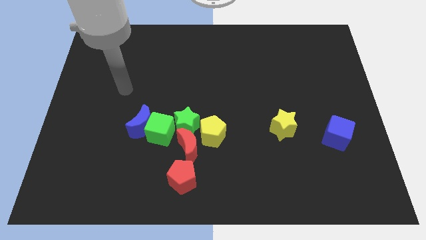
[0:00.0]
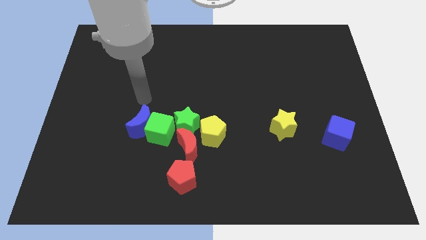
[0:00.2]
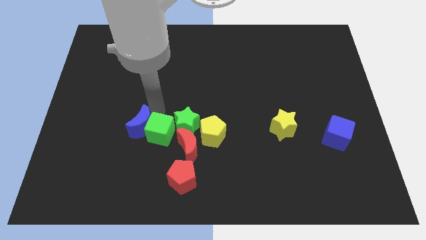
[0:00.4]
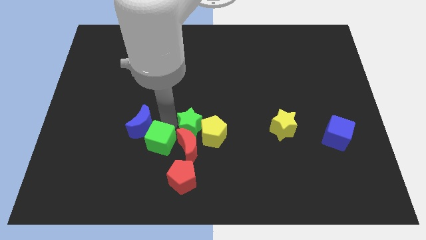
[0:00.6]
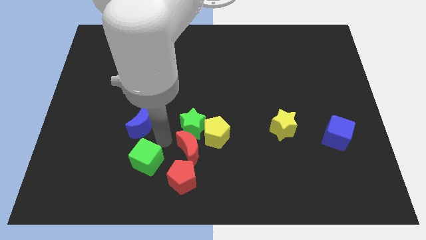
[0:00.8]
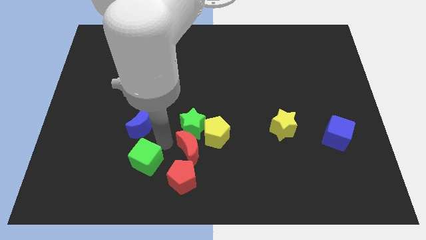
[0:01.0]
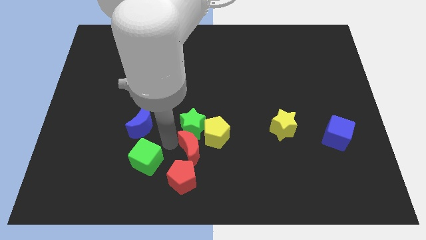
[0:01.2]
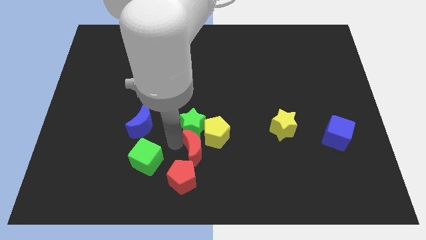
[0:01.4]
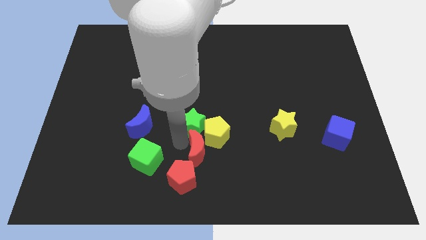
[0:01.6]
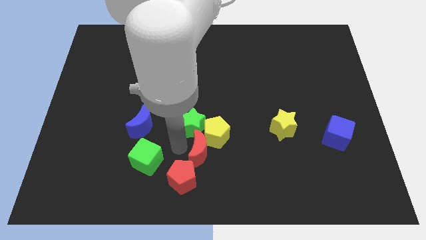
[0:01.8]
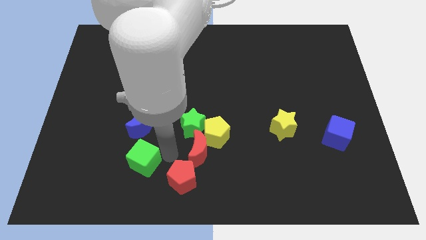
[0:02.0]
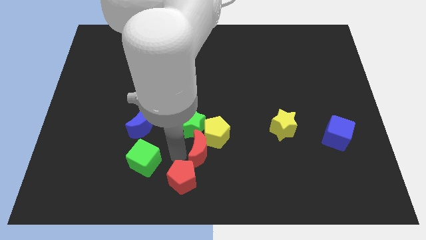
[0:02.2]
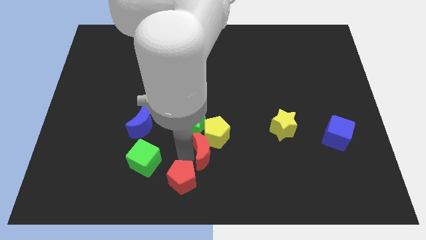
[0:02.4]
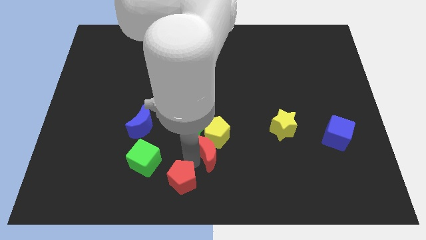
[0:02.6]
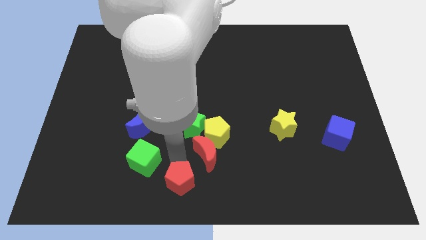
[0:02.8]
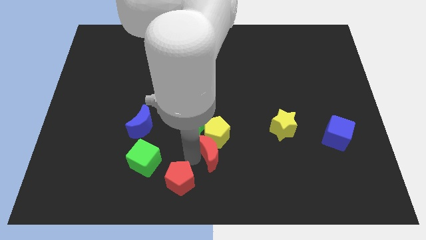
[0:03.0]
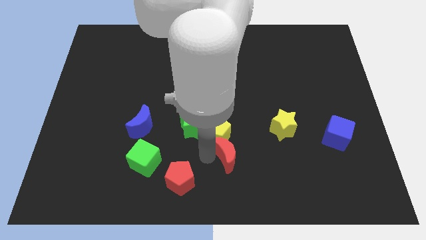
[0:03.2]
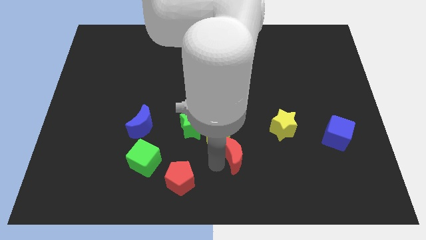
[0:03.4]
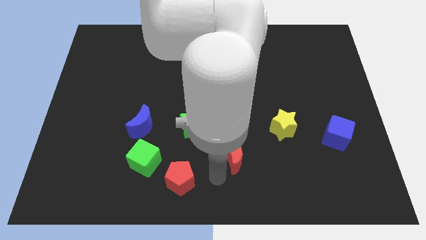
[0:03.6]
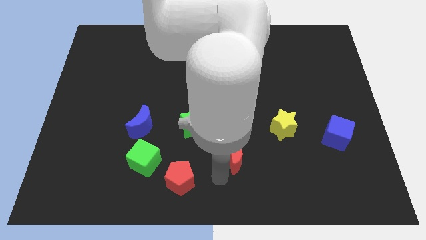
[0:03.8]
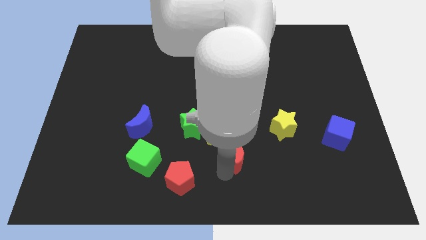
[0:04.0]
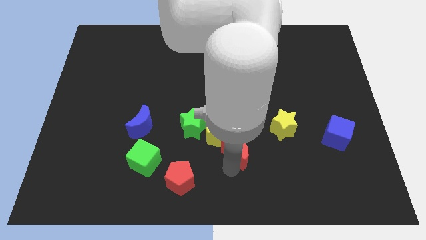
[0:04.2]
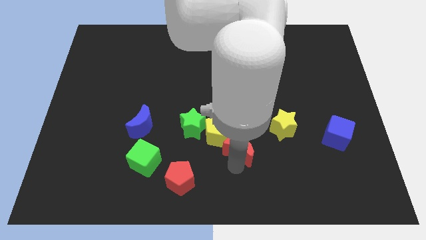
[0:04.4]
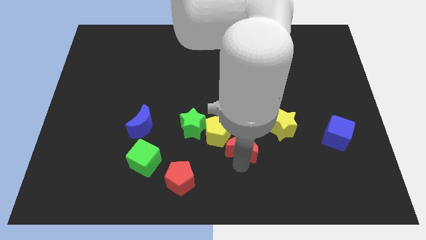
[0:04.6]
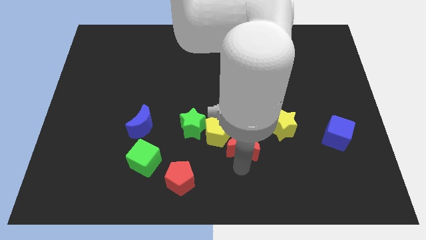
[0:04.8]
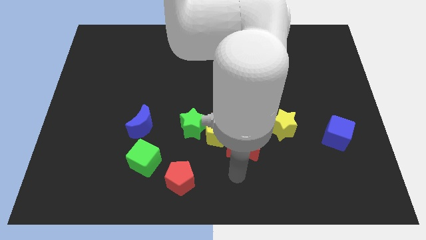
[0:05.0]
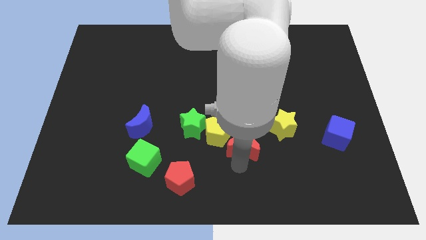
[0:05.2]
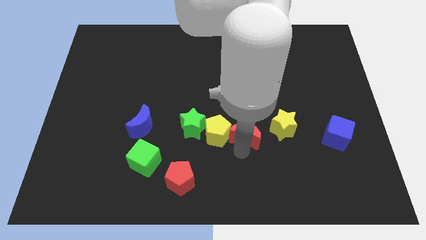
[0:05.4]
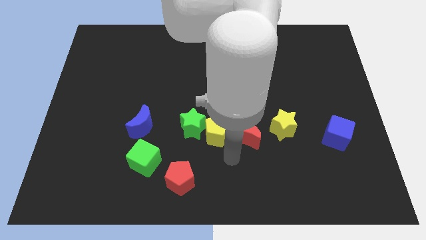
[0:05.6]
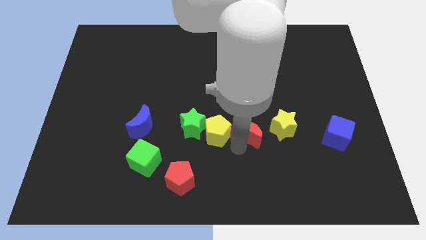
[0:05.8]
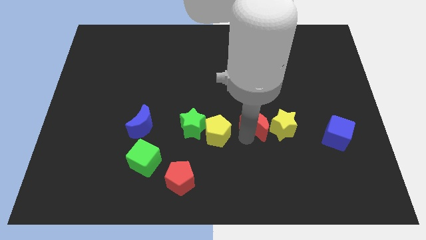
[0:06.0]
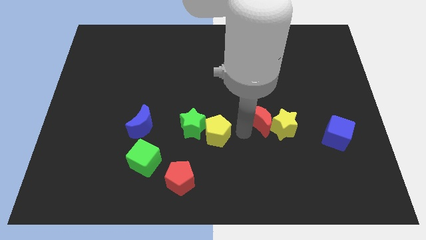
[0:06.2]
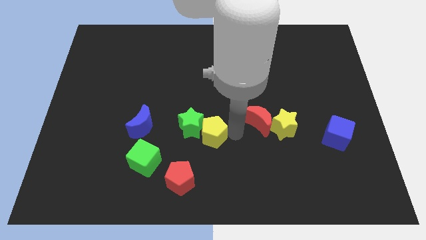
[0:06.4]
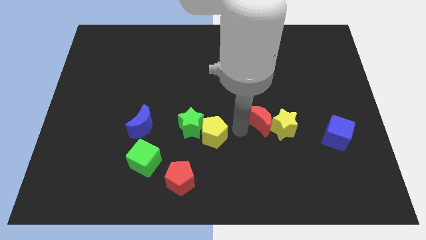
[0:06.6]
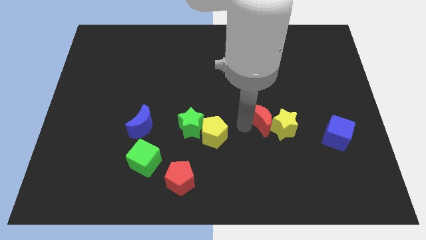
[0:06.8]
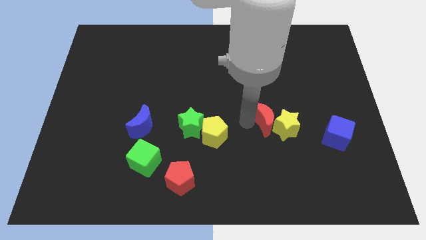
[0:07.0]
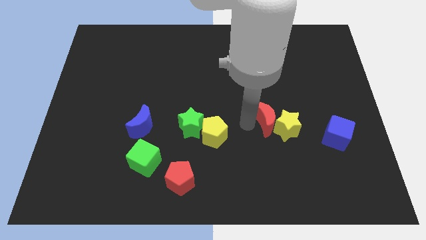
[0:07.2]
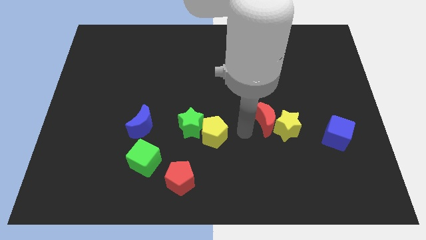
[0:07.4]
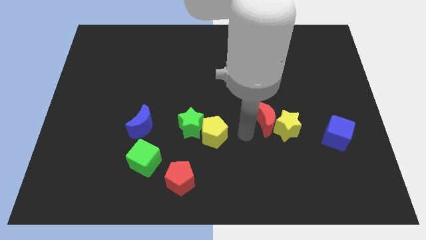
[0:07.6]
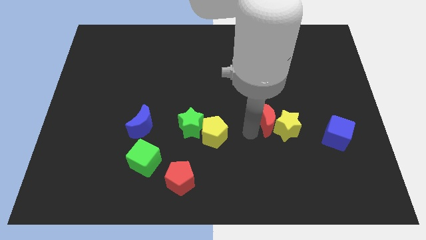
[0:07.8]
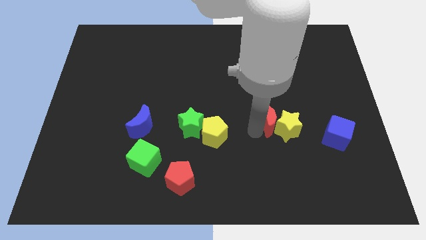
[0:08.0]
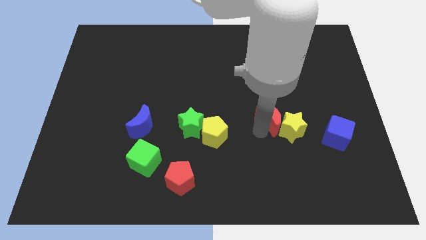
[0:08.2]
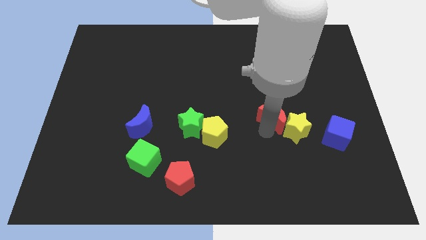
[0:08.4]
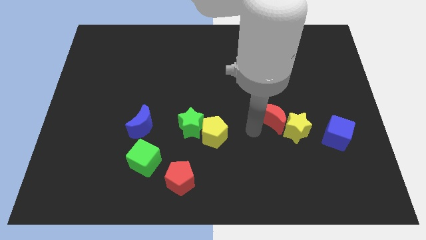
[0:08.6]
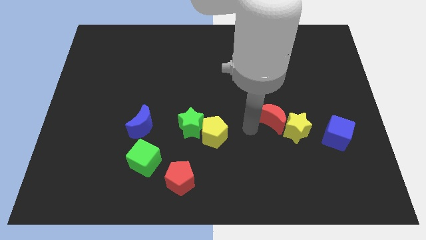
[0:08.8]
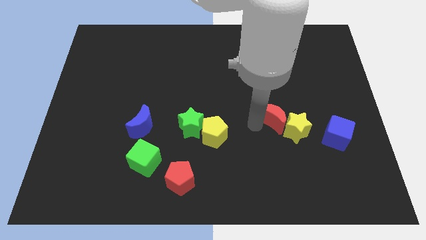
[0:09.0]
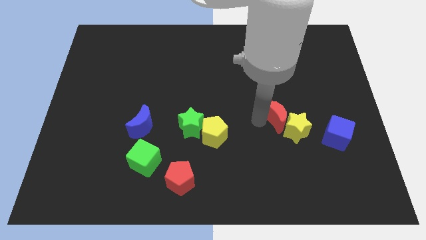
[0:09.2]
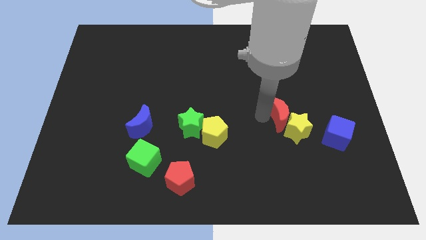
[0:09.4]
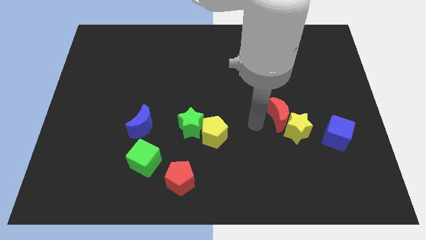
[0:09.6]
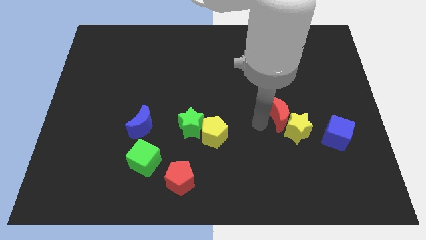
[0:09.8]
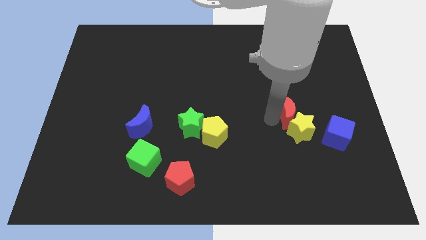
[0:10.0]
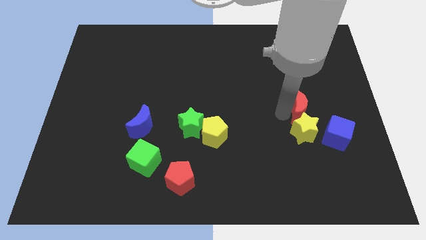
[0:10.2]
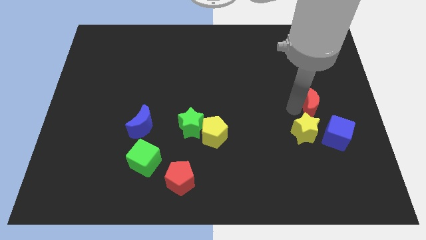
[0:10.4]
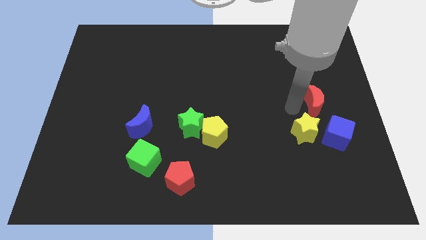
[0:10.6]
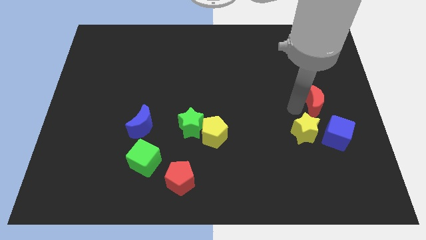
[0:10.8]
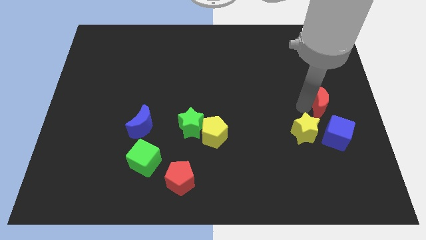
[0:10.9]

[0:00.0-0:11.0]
slide the red moon to the center right

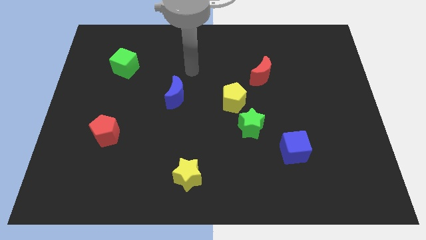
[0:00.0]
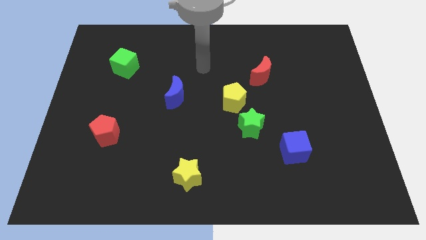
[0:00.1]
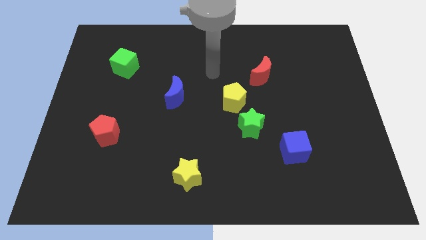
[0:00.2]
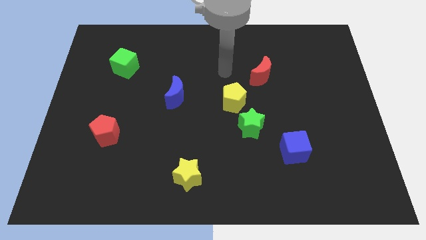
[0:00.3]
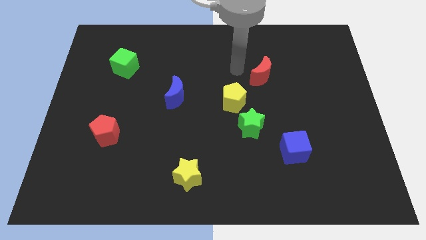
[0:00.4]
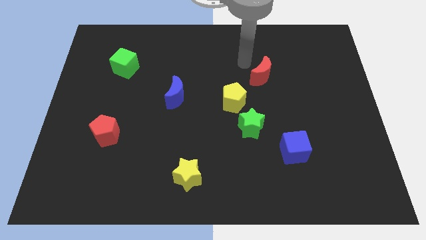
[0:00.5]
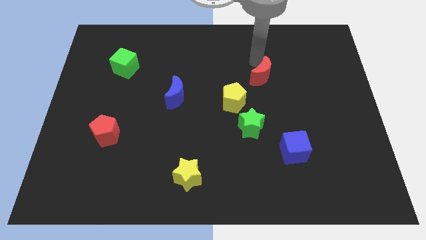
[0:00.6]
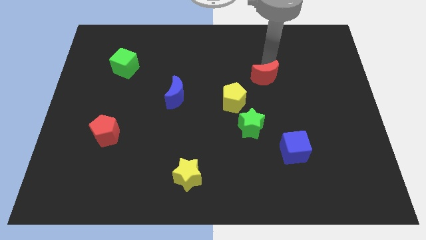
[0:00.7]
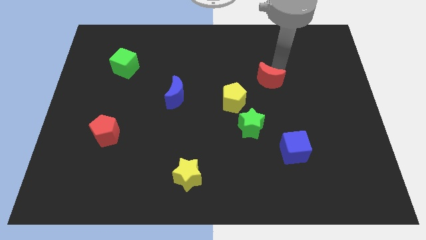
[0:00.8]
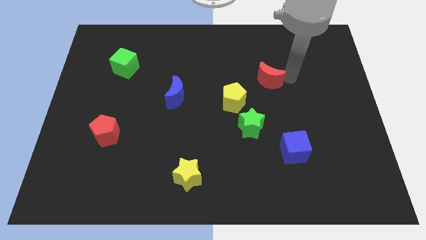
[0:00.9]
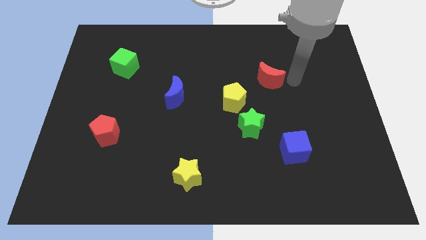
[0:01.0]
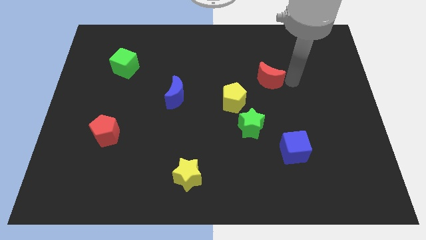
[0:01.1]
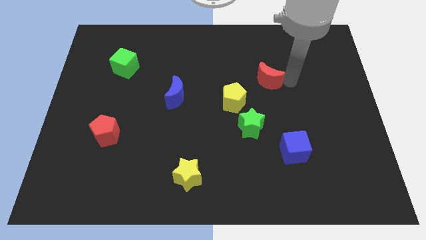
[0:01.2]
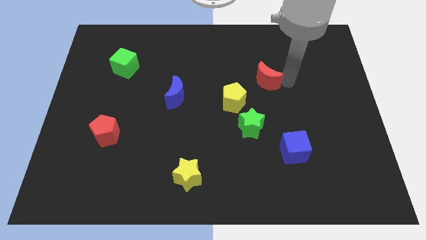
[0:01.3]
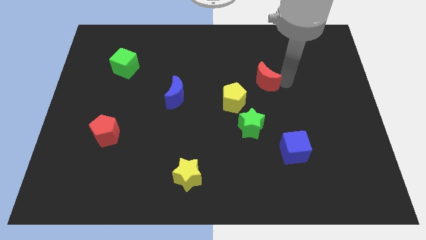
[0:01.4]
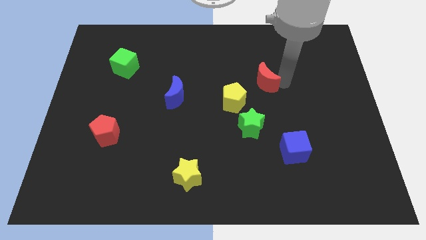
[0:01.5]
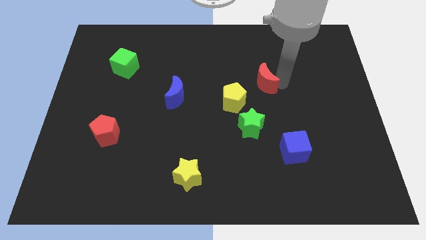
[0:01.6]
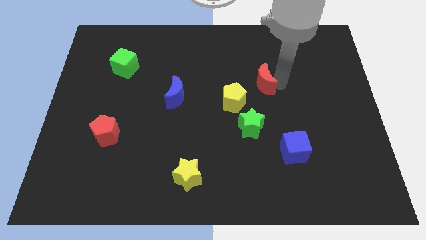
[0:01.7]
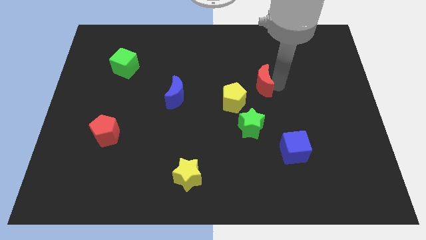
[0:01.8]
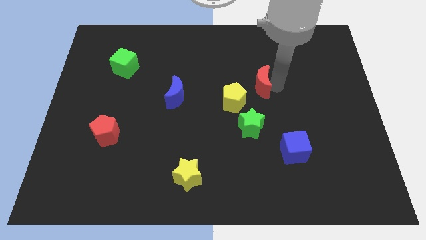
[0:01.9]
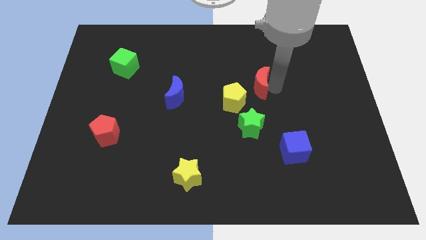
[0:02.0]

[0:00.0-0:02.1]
put the red moon to the center of the board

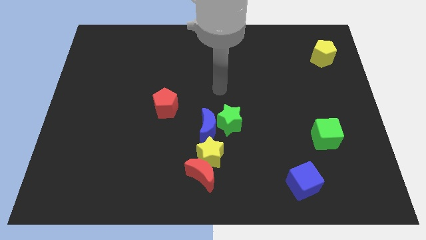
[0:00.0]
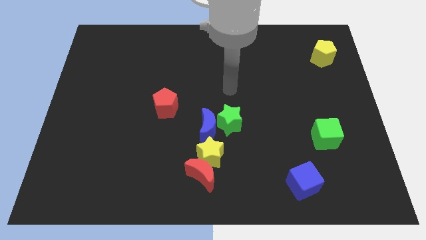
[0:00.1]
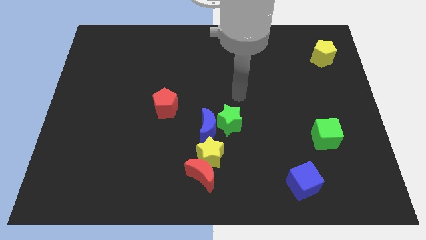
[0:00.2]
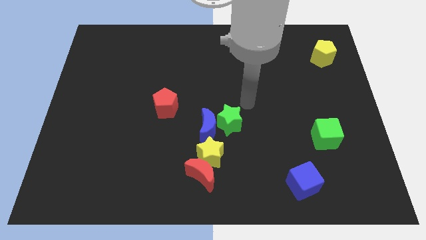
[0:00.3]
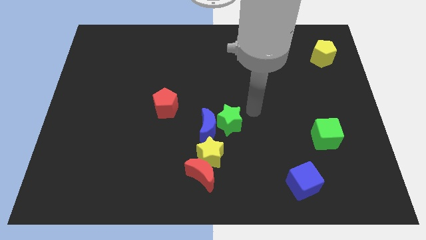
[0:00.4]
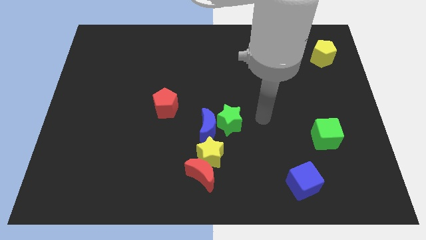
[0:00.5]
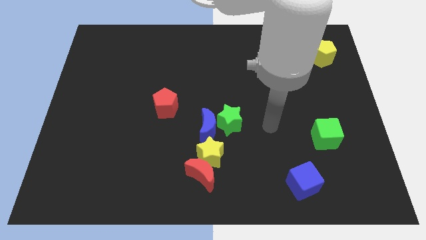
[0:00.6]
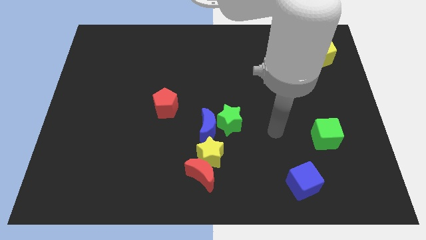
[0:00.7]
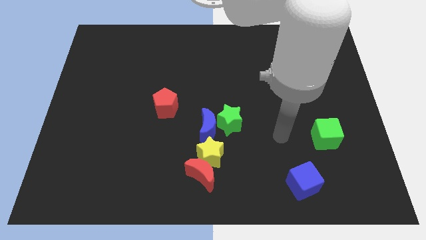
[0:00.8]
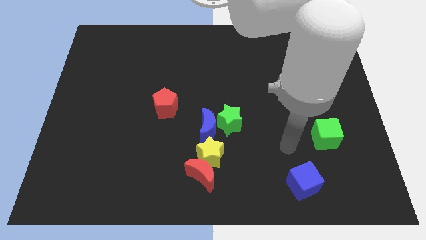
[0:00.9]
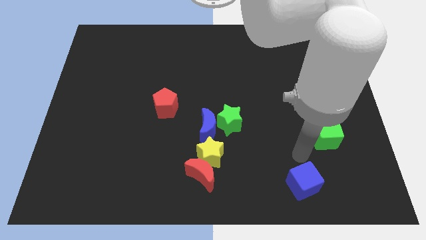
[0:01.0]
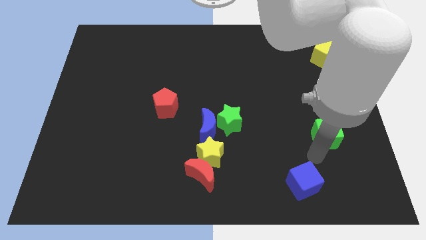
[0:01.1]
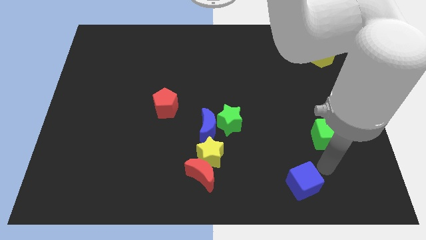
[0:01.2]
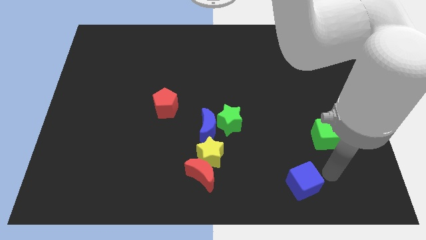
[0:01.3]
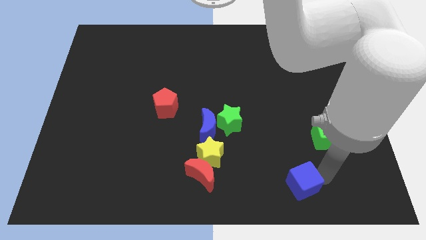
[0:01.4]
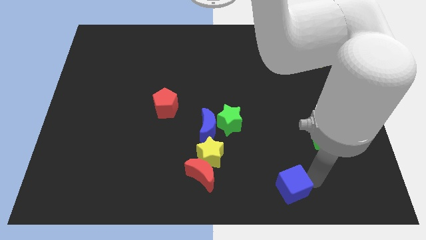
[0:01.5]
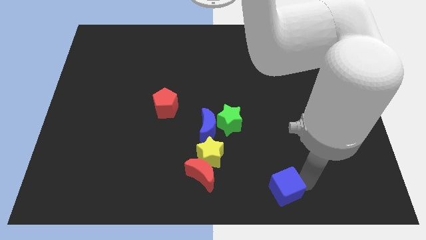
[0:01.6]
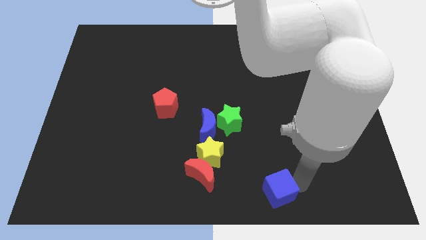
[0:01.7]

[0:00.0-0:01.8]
push the blue cube to the bottom side
